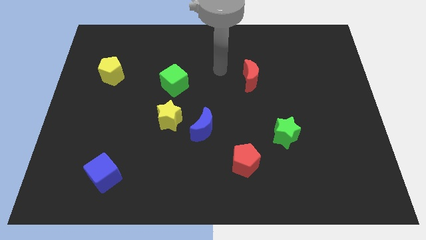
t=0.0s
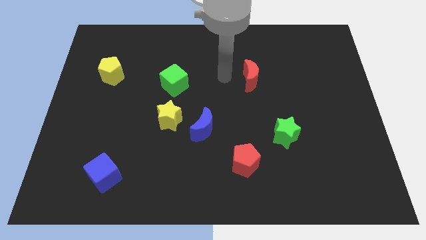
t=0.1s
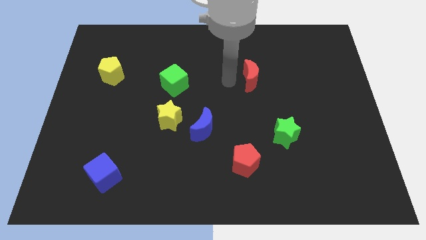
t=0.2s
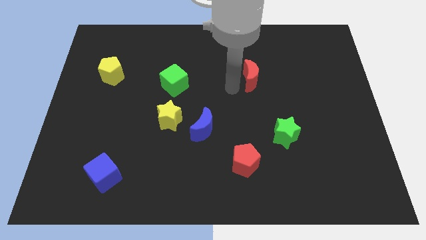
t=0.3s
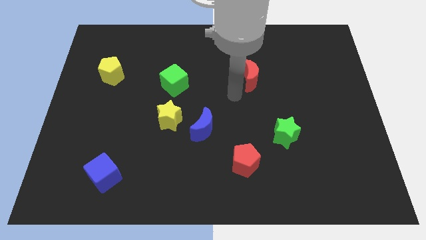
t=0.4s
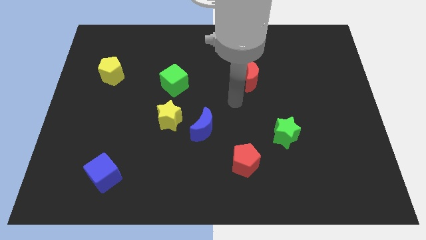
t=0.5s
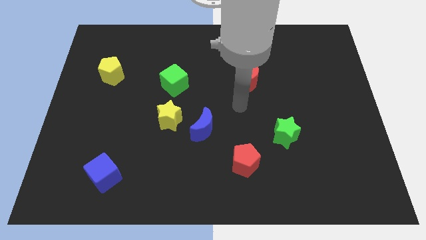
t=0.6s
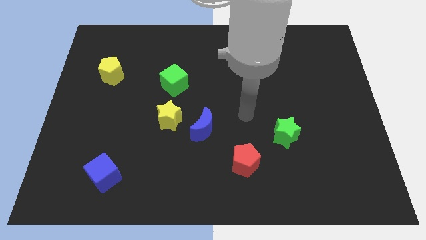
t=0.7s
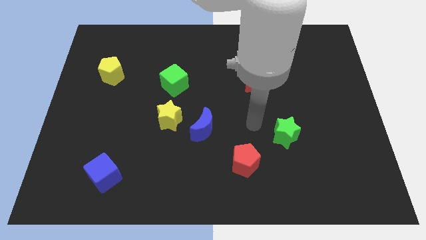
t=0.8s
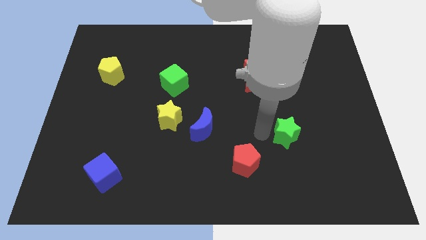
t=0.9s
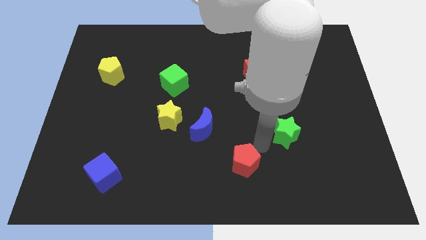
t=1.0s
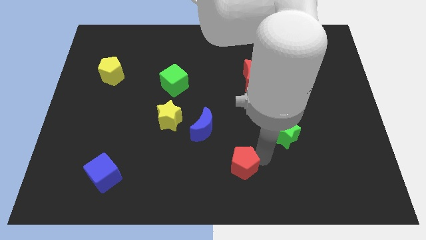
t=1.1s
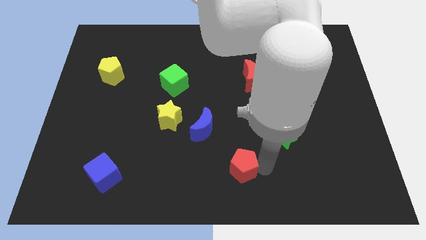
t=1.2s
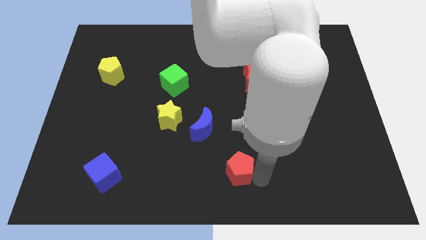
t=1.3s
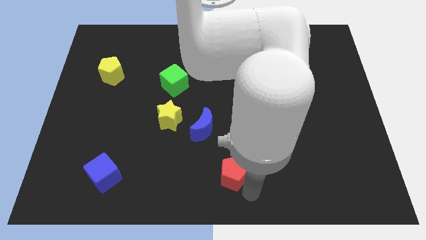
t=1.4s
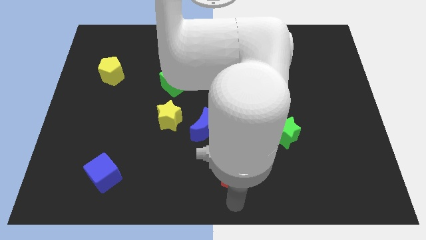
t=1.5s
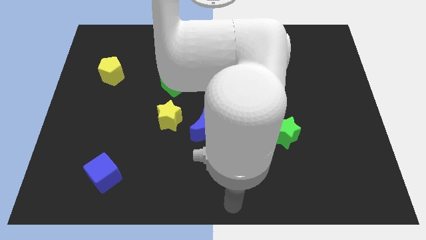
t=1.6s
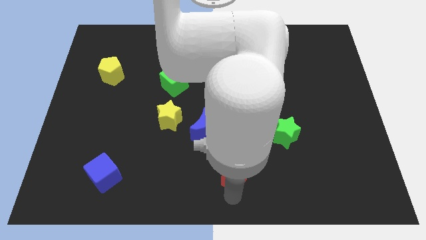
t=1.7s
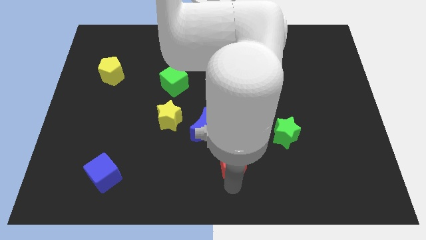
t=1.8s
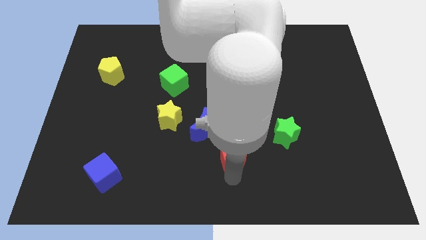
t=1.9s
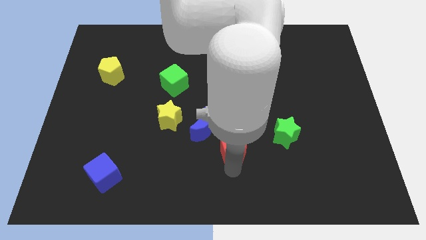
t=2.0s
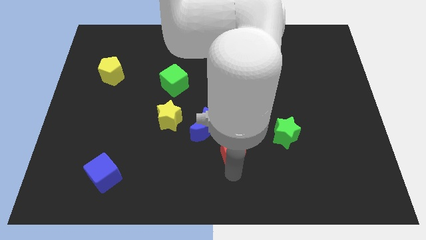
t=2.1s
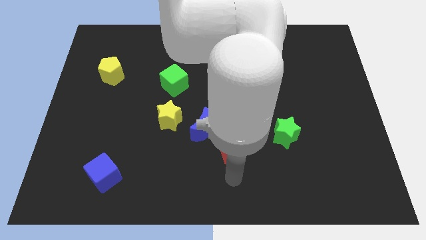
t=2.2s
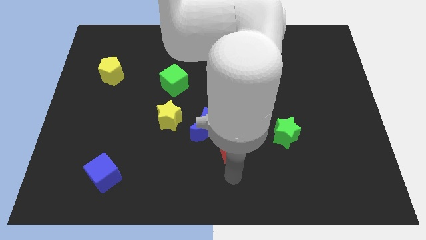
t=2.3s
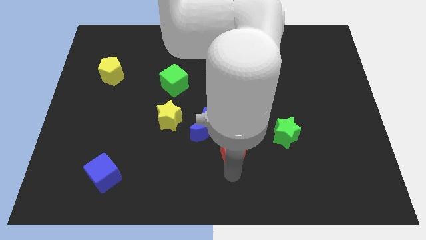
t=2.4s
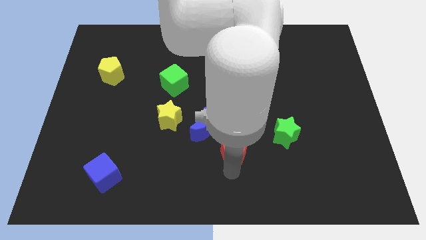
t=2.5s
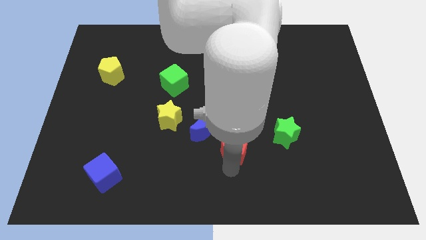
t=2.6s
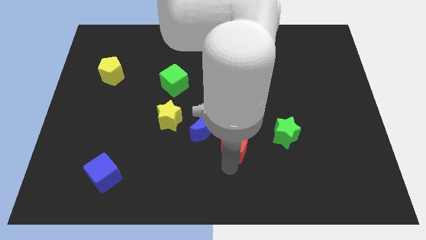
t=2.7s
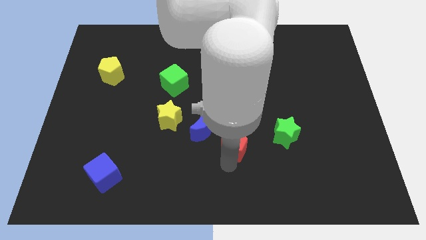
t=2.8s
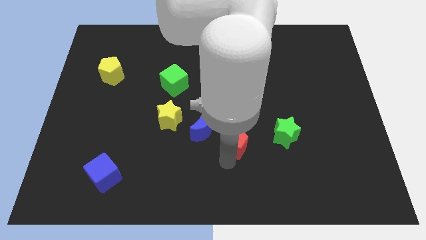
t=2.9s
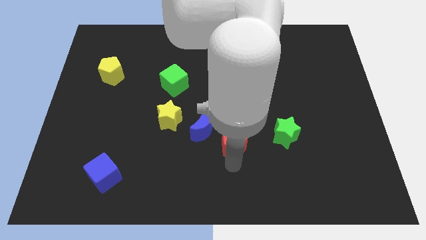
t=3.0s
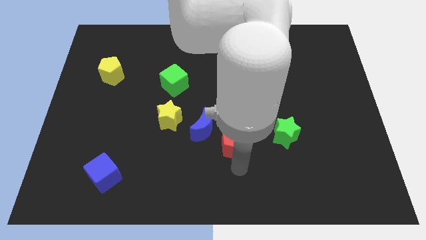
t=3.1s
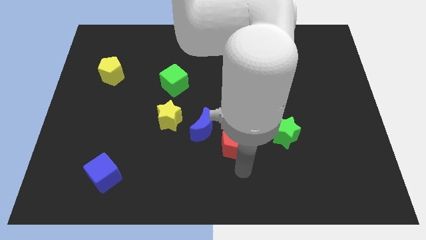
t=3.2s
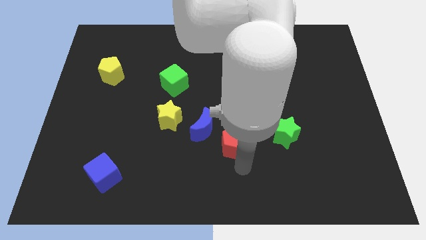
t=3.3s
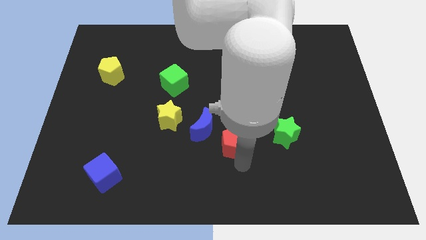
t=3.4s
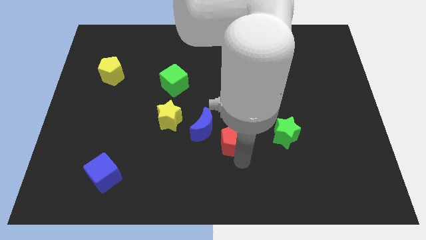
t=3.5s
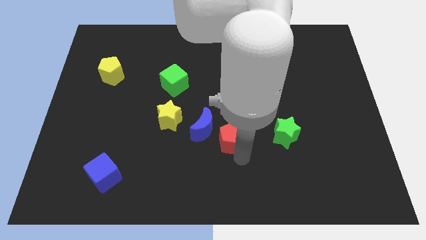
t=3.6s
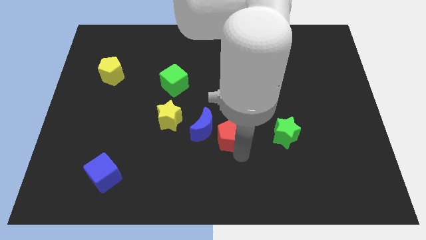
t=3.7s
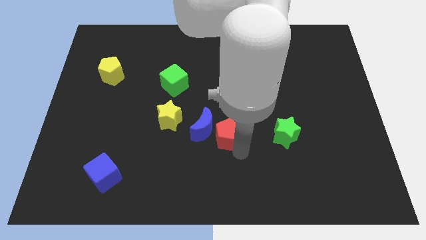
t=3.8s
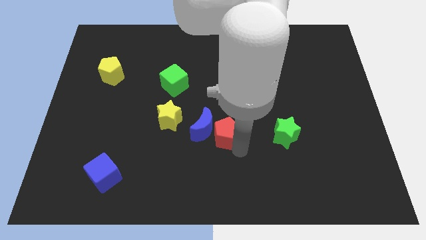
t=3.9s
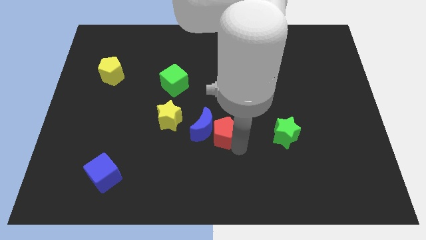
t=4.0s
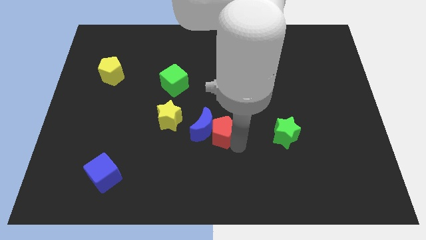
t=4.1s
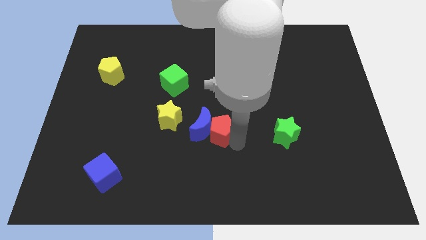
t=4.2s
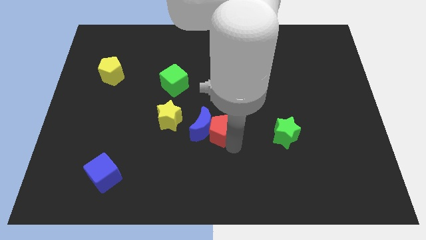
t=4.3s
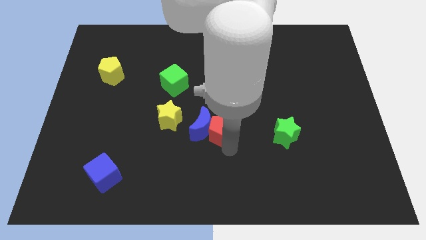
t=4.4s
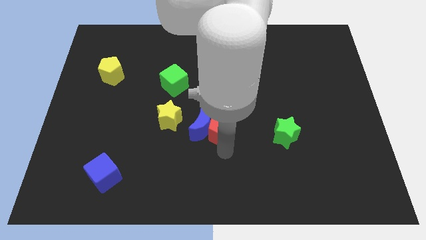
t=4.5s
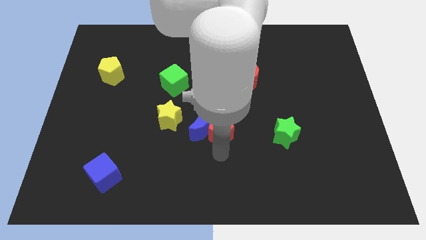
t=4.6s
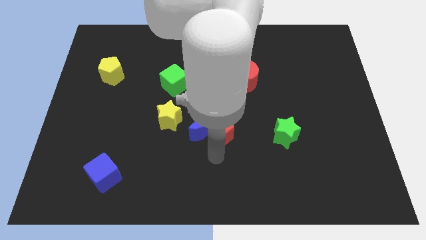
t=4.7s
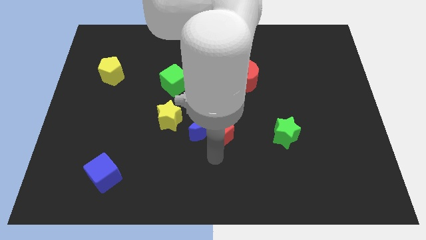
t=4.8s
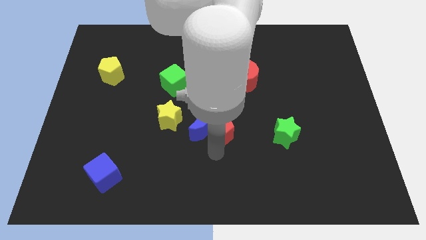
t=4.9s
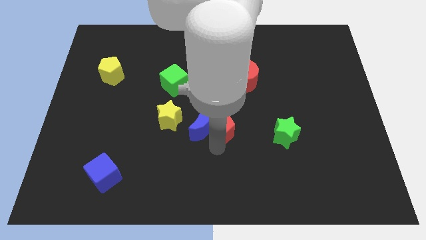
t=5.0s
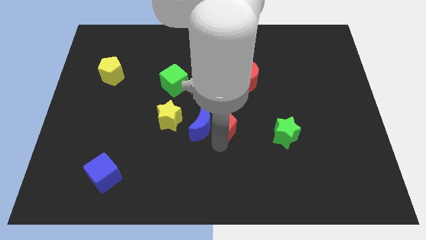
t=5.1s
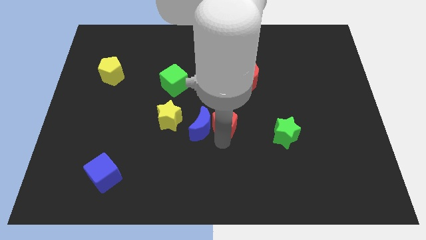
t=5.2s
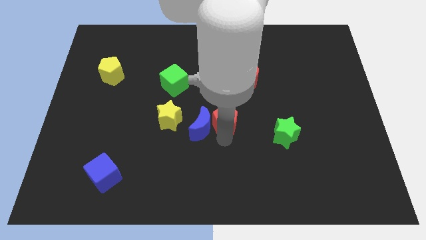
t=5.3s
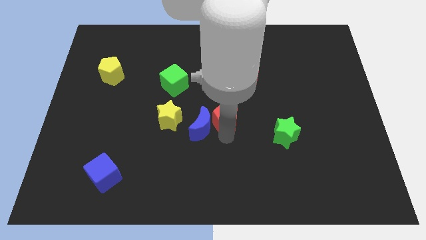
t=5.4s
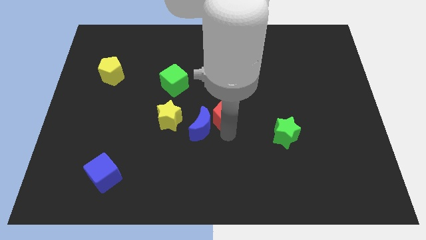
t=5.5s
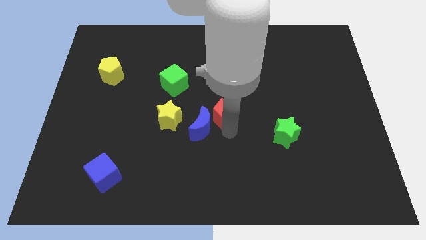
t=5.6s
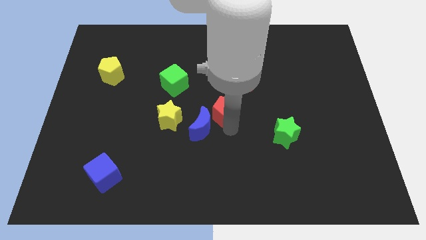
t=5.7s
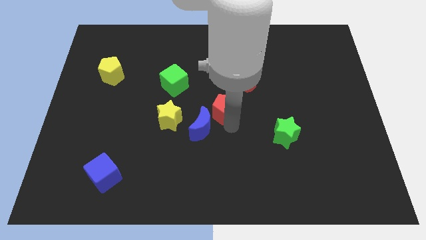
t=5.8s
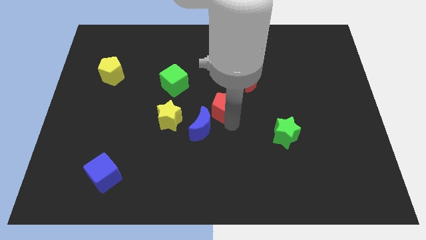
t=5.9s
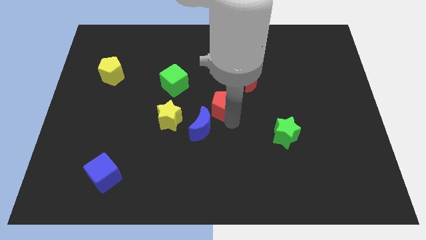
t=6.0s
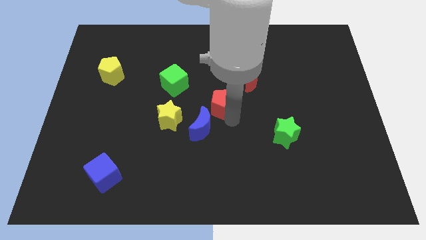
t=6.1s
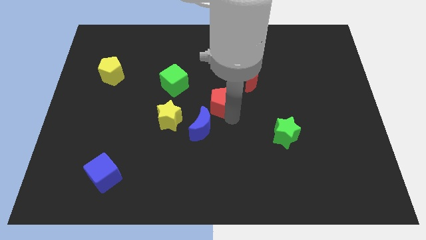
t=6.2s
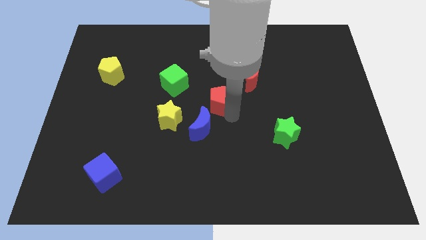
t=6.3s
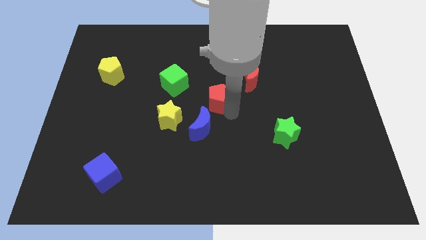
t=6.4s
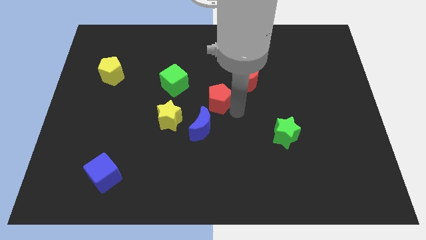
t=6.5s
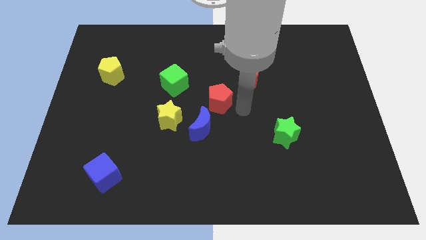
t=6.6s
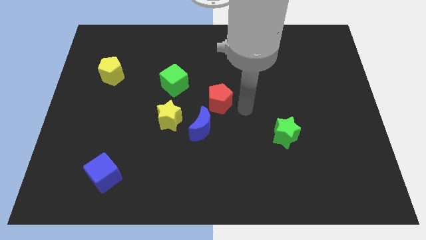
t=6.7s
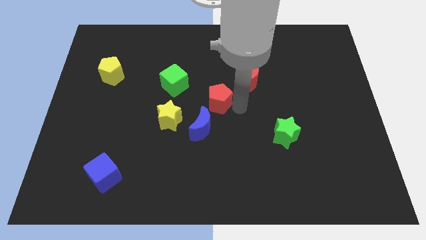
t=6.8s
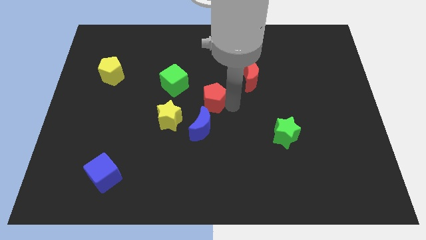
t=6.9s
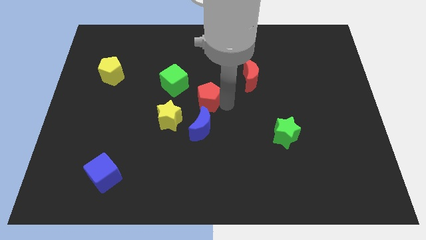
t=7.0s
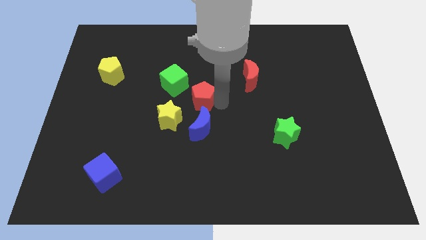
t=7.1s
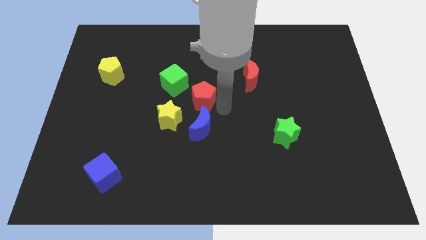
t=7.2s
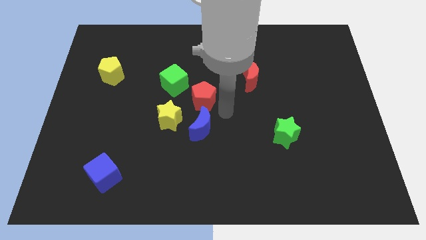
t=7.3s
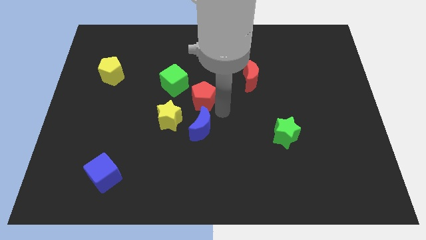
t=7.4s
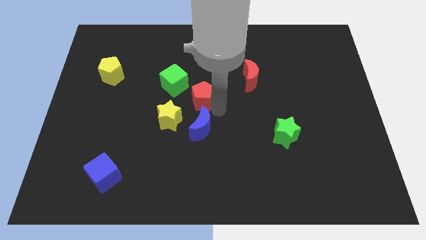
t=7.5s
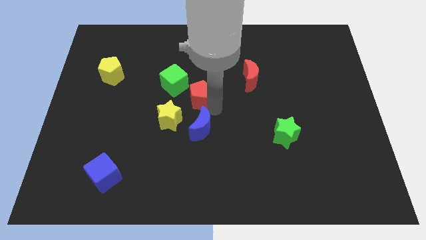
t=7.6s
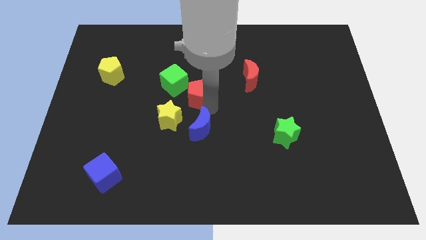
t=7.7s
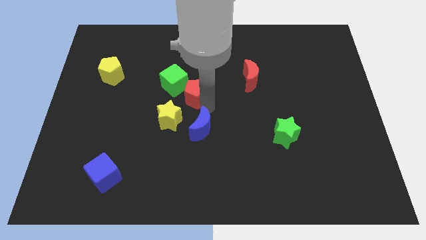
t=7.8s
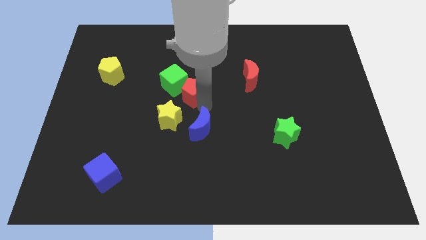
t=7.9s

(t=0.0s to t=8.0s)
push the red pentagon to the green cube
